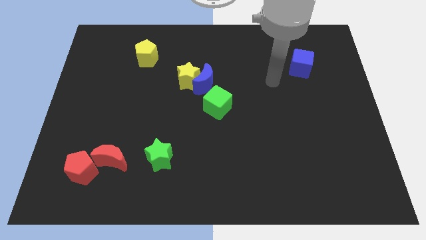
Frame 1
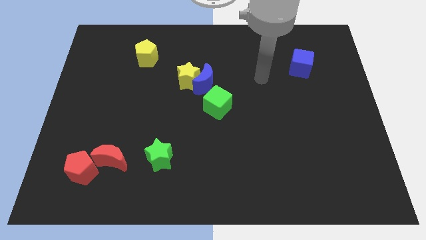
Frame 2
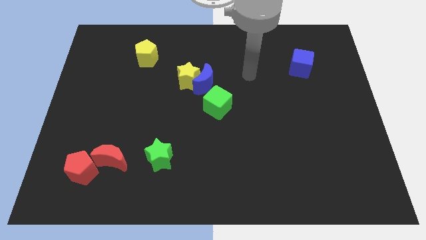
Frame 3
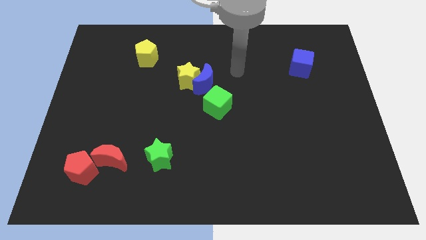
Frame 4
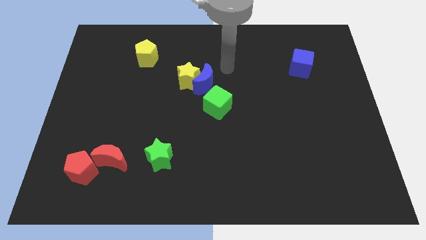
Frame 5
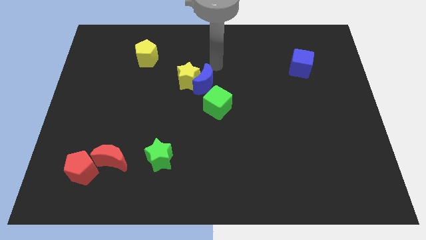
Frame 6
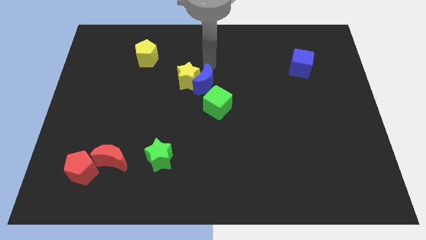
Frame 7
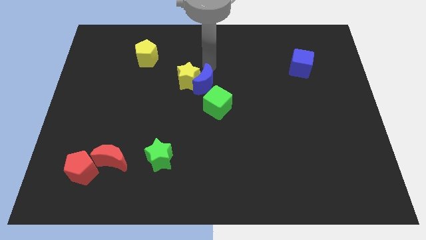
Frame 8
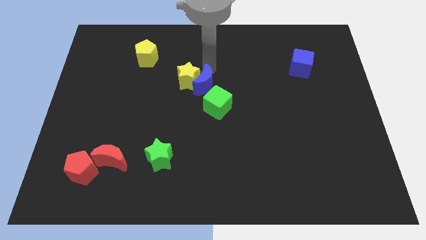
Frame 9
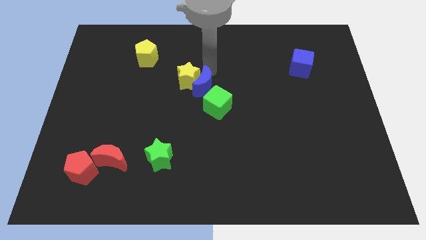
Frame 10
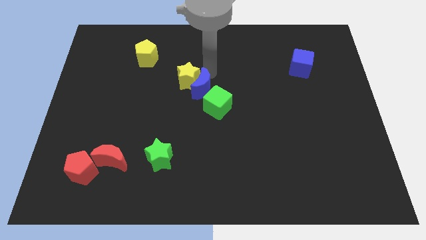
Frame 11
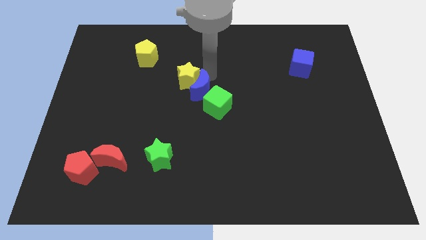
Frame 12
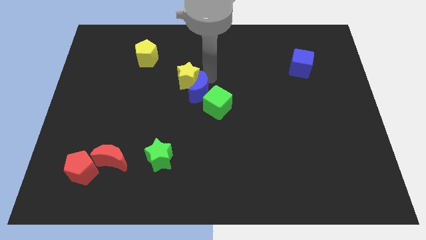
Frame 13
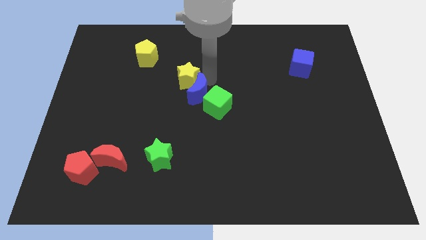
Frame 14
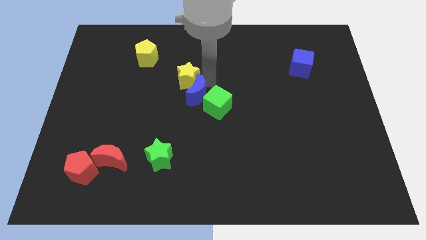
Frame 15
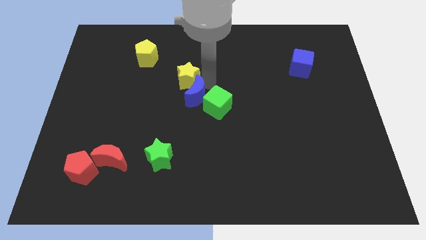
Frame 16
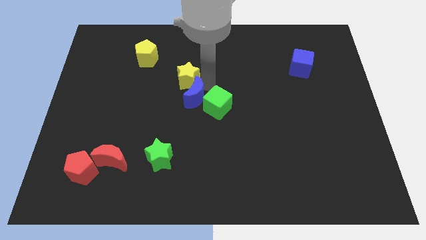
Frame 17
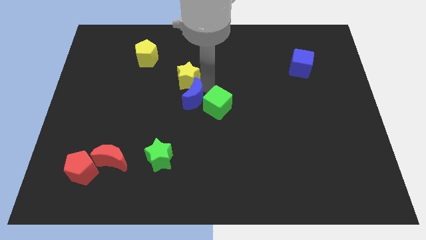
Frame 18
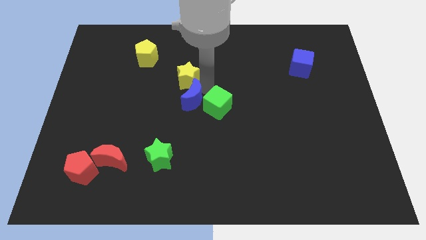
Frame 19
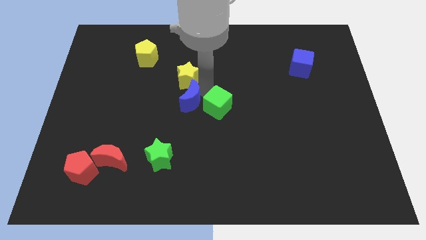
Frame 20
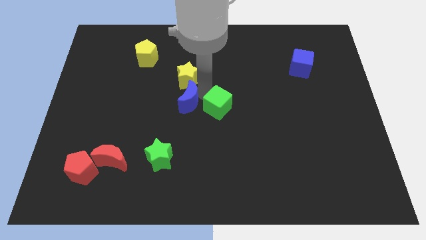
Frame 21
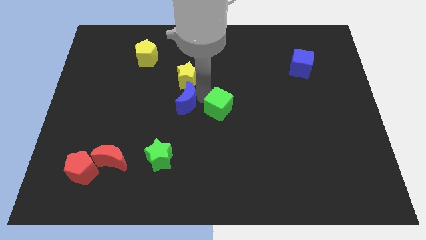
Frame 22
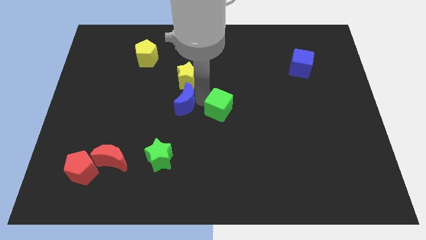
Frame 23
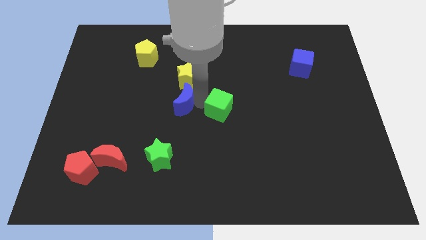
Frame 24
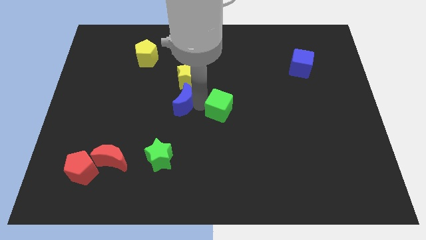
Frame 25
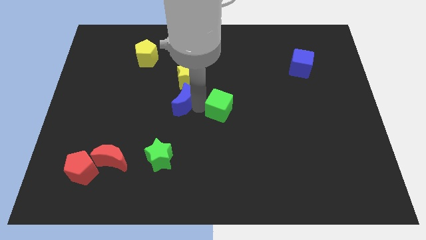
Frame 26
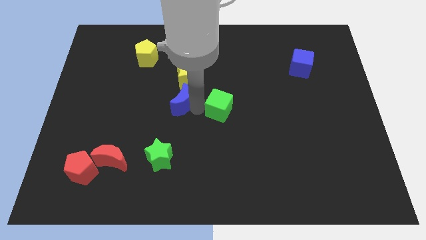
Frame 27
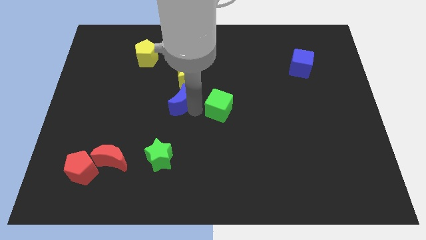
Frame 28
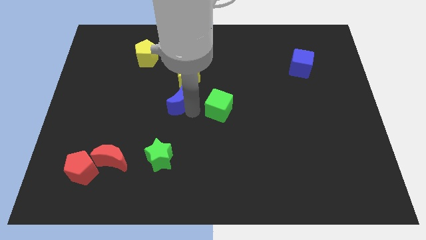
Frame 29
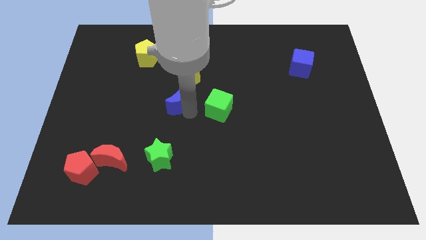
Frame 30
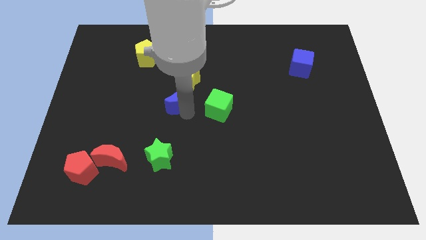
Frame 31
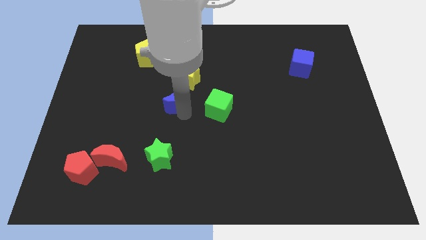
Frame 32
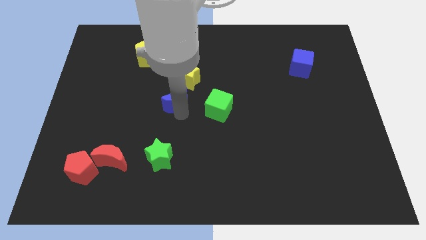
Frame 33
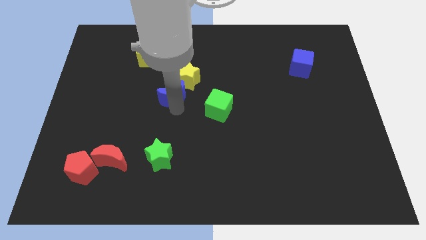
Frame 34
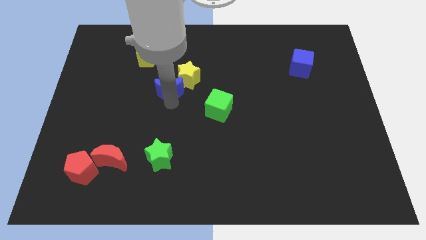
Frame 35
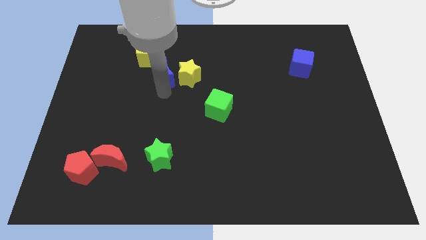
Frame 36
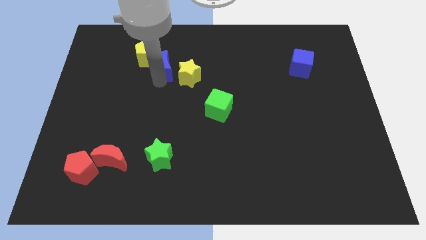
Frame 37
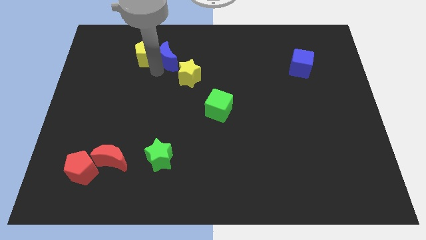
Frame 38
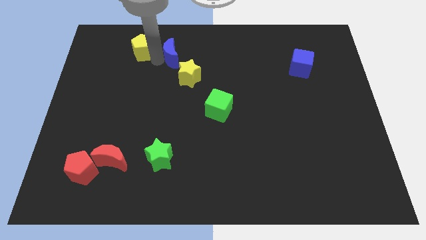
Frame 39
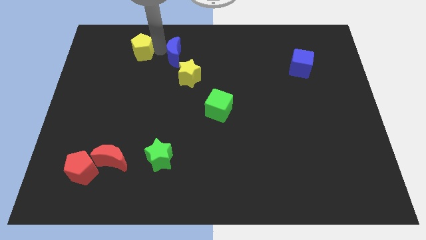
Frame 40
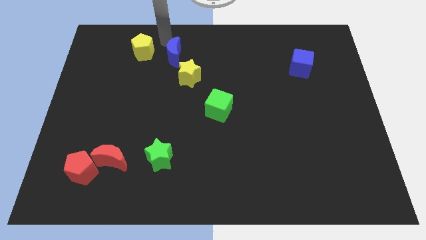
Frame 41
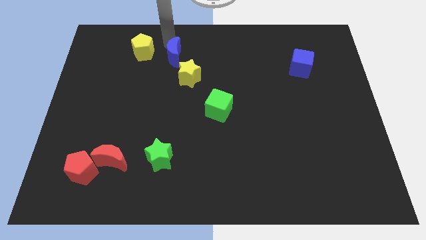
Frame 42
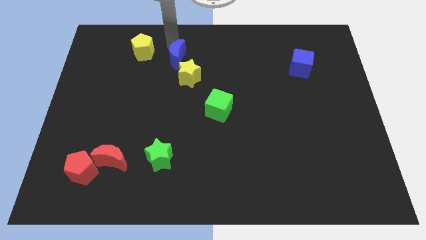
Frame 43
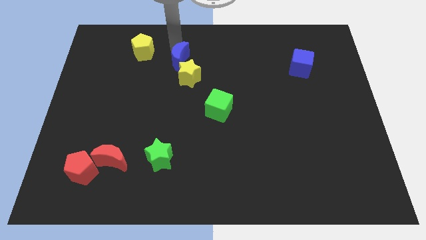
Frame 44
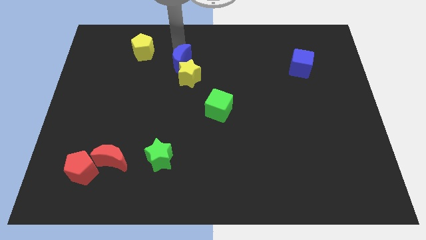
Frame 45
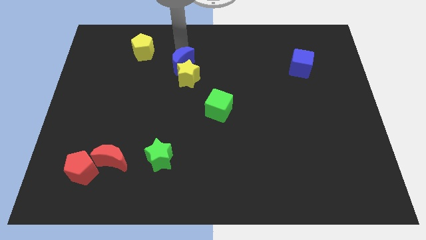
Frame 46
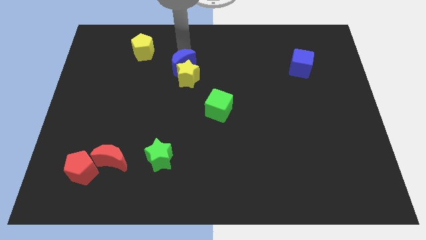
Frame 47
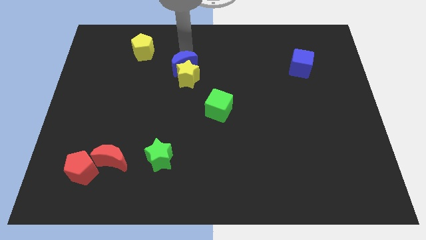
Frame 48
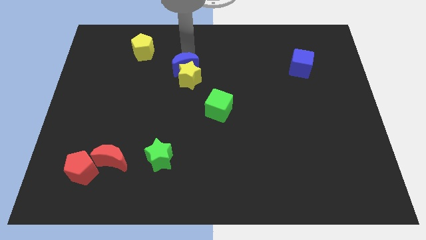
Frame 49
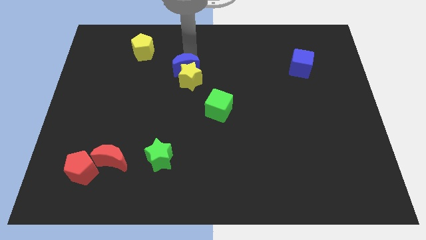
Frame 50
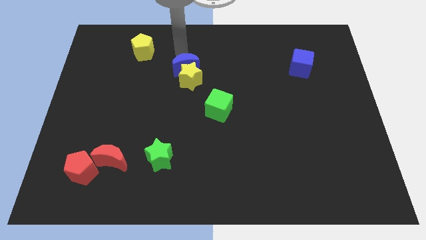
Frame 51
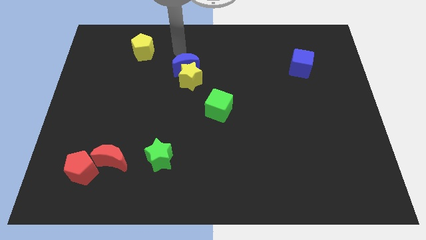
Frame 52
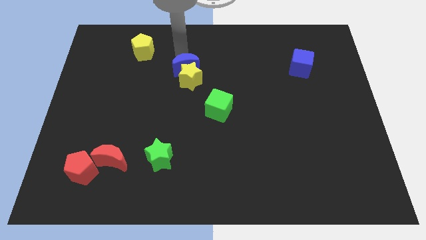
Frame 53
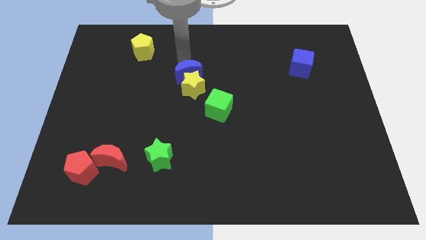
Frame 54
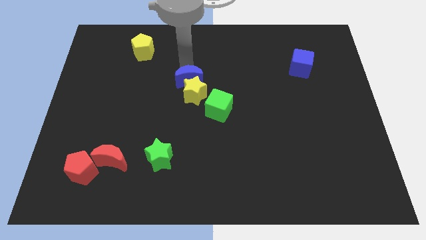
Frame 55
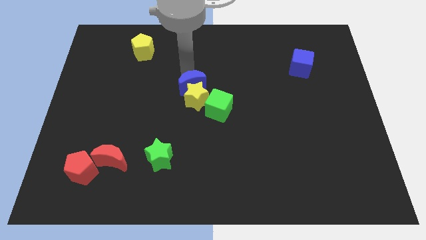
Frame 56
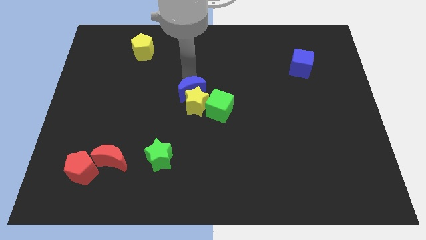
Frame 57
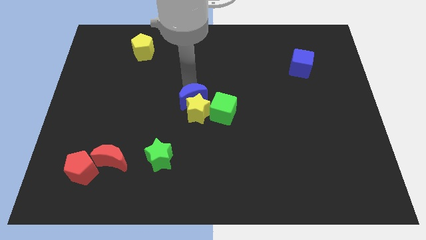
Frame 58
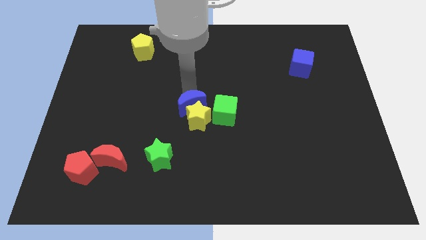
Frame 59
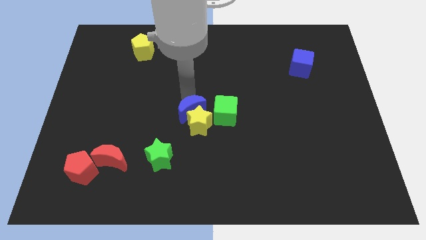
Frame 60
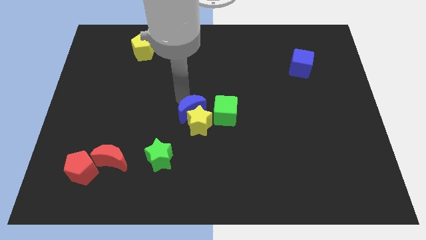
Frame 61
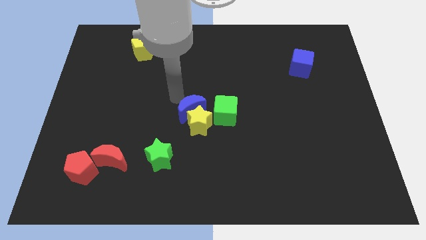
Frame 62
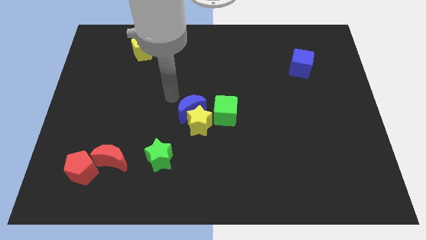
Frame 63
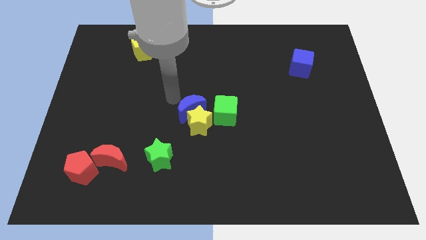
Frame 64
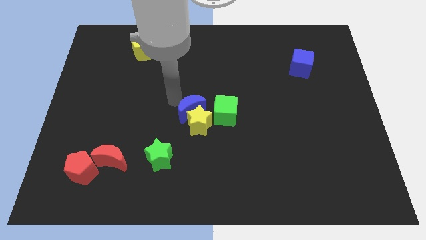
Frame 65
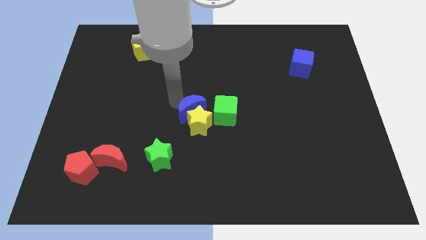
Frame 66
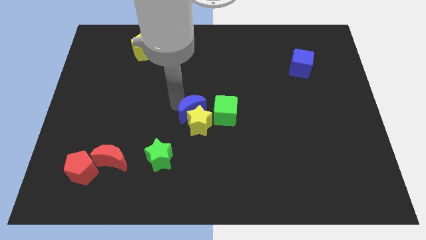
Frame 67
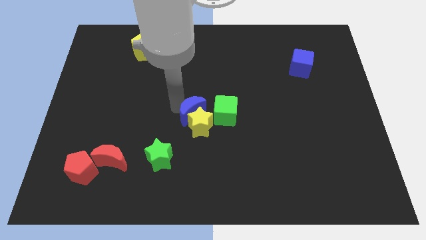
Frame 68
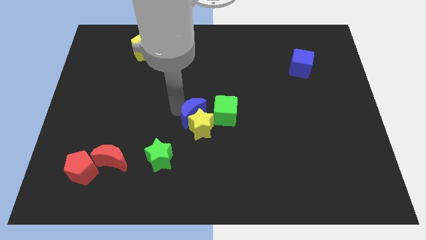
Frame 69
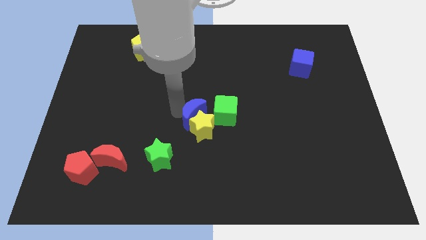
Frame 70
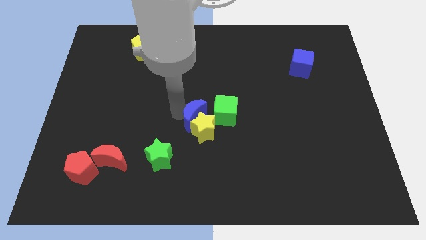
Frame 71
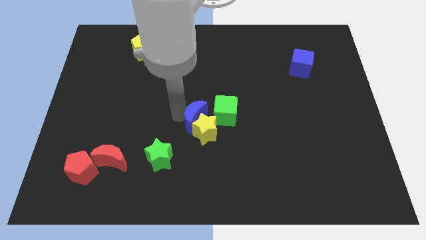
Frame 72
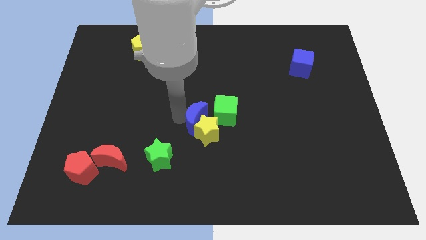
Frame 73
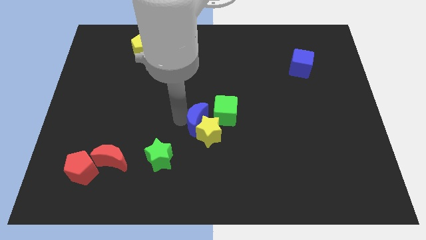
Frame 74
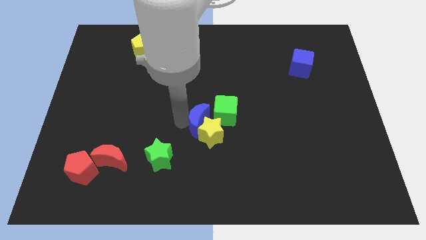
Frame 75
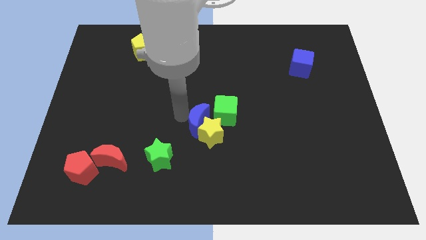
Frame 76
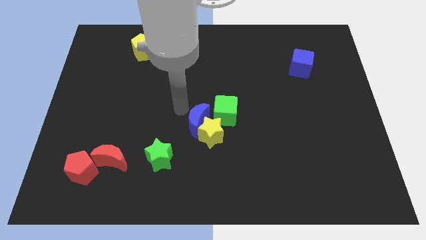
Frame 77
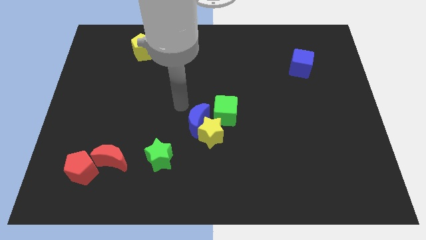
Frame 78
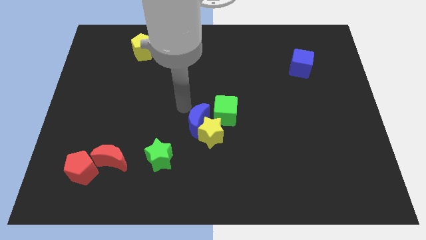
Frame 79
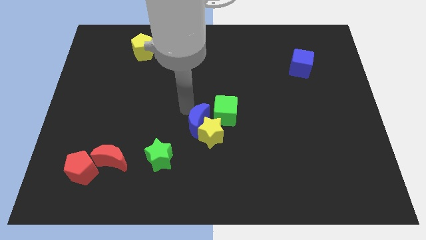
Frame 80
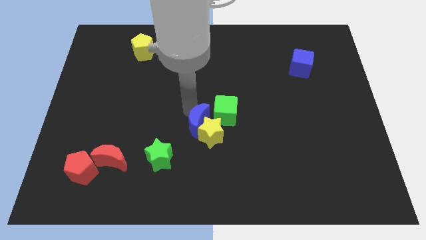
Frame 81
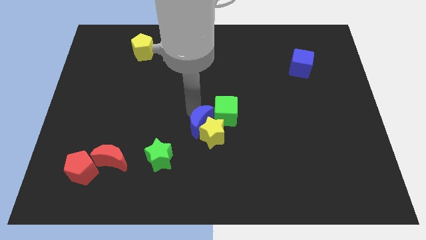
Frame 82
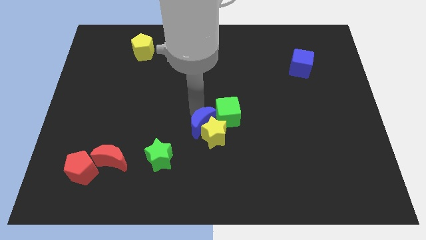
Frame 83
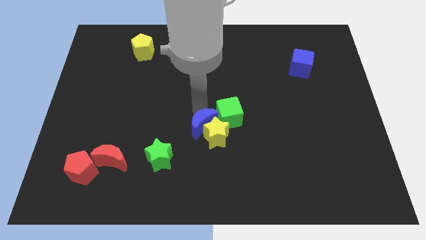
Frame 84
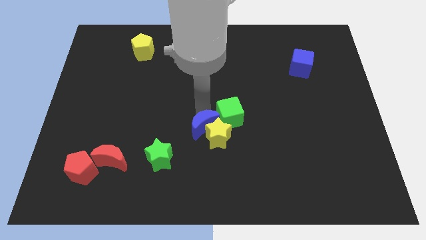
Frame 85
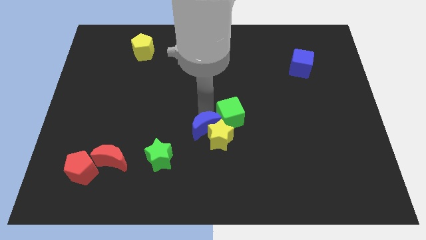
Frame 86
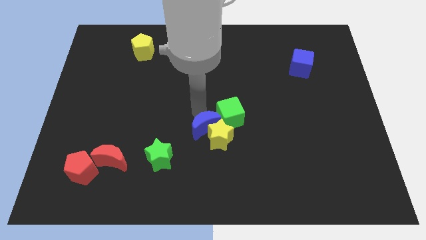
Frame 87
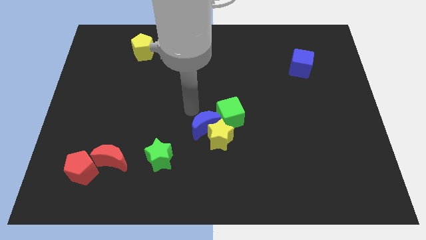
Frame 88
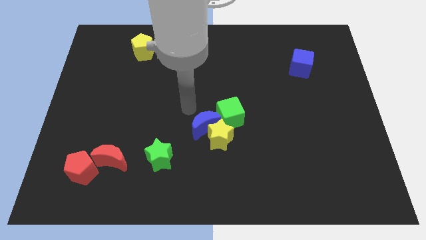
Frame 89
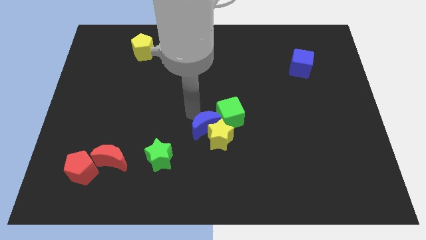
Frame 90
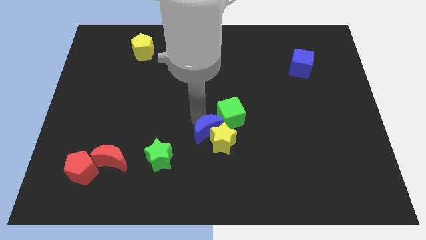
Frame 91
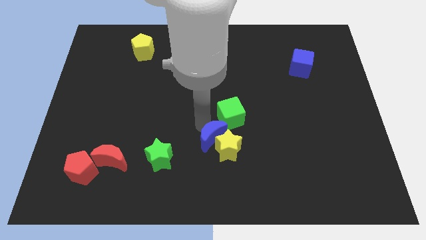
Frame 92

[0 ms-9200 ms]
push the blue moon below the green cube
